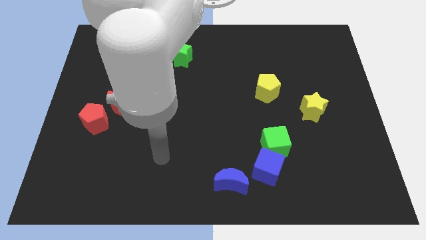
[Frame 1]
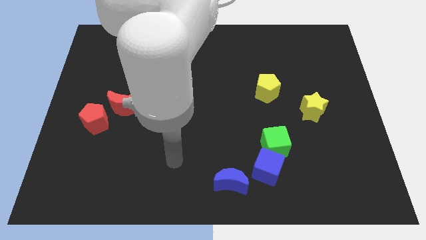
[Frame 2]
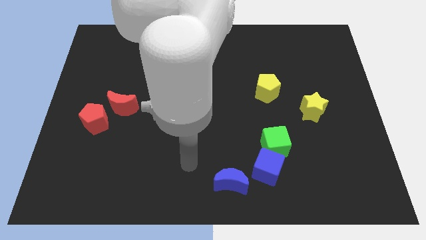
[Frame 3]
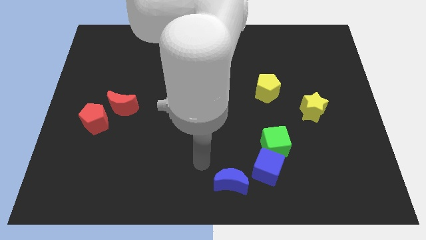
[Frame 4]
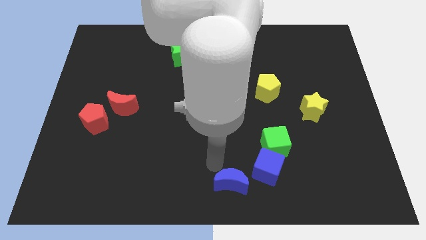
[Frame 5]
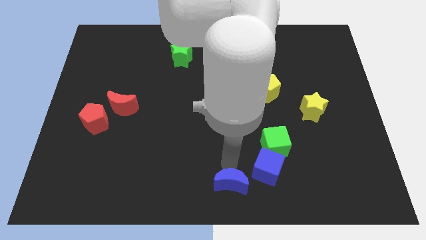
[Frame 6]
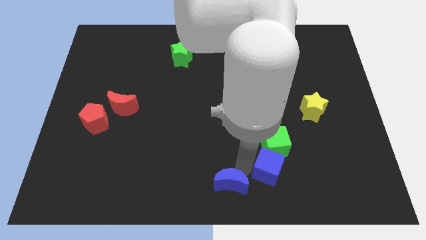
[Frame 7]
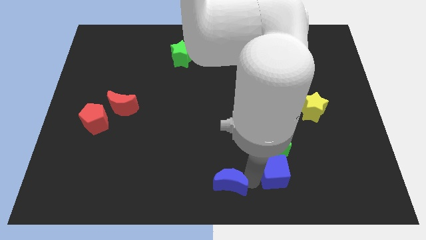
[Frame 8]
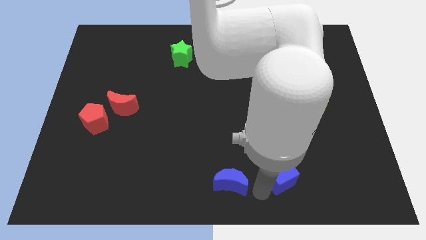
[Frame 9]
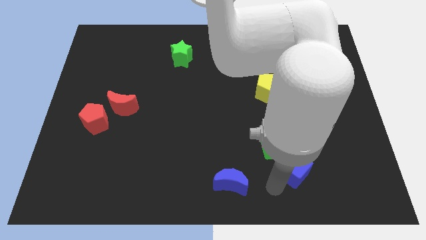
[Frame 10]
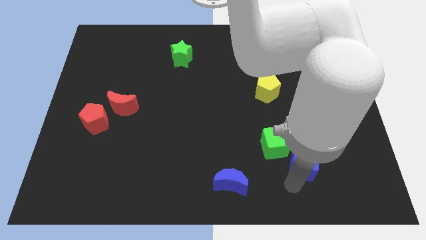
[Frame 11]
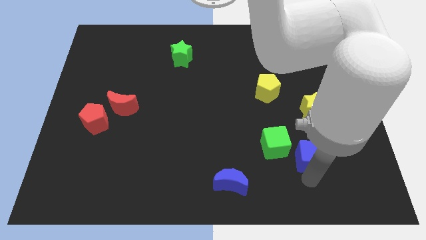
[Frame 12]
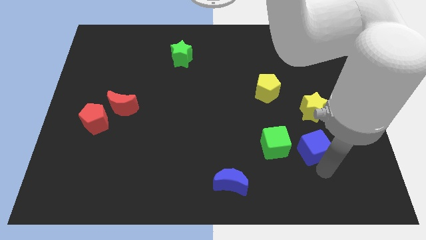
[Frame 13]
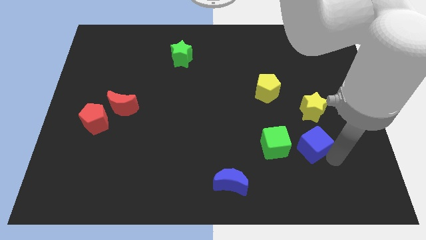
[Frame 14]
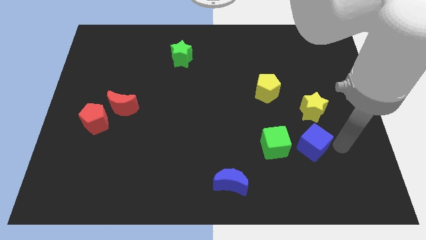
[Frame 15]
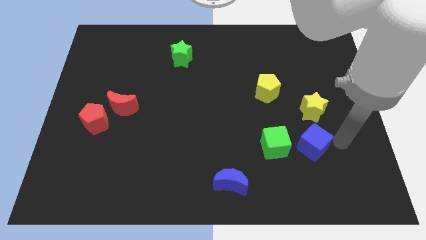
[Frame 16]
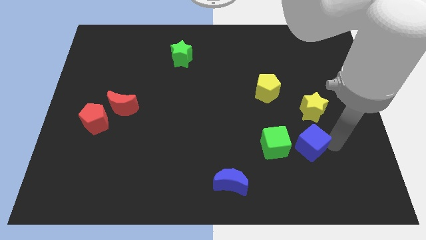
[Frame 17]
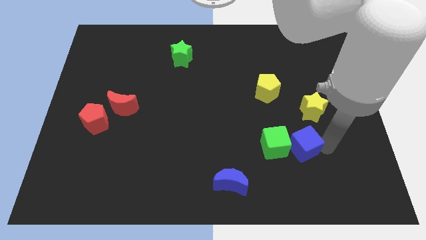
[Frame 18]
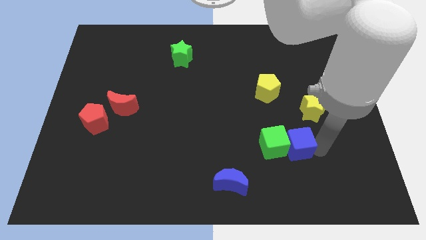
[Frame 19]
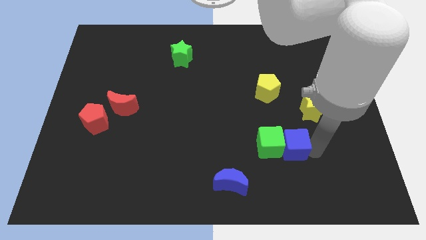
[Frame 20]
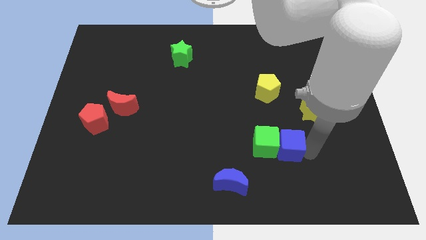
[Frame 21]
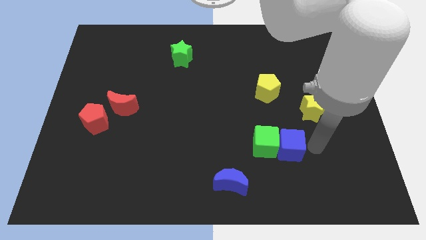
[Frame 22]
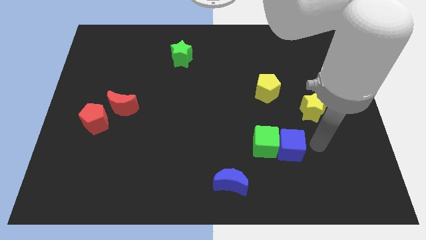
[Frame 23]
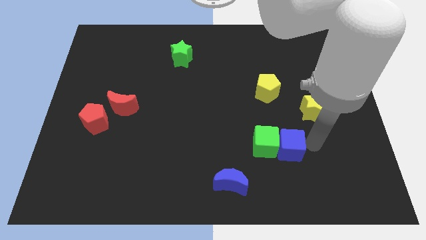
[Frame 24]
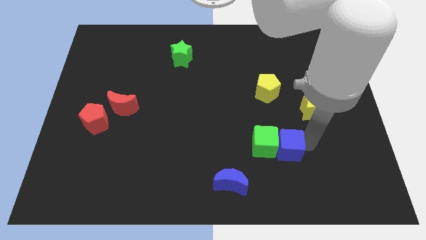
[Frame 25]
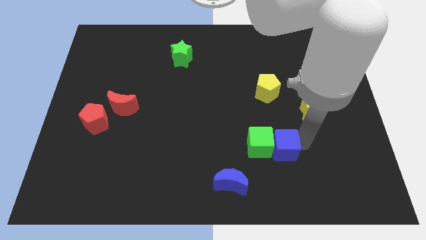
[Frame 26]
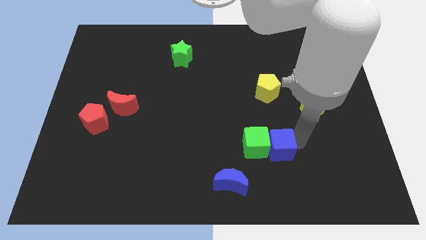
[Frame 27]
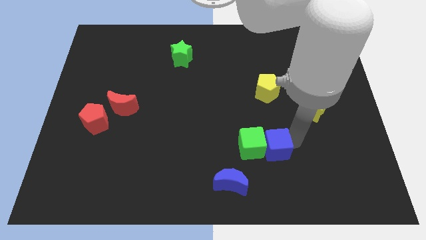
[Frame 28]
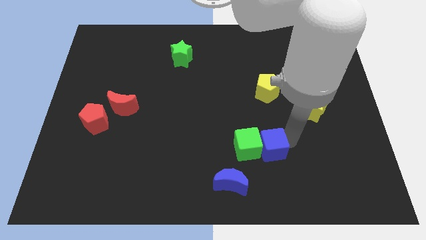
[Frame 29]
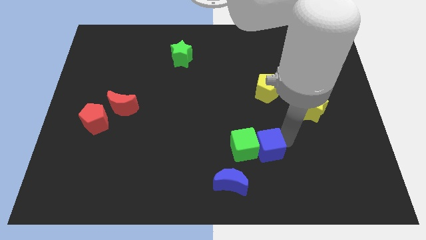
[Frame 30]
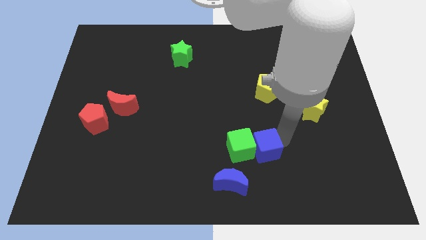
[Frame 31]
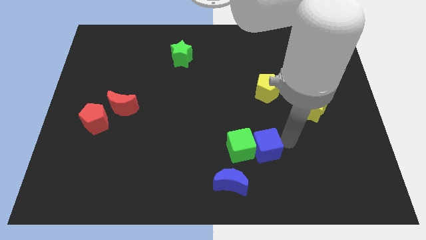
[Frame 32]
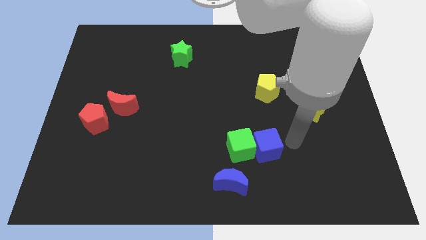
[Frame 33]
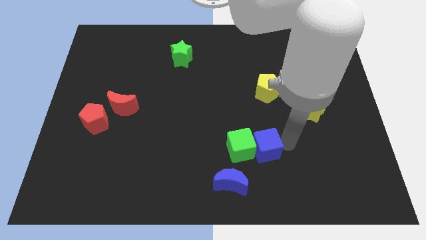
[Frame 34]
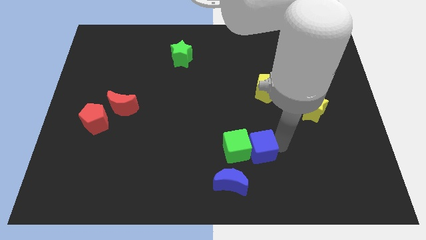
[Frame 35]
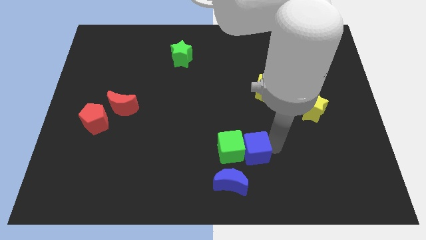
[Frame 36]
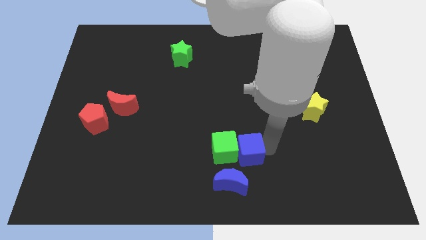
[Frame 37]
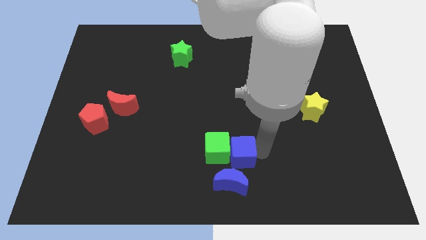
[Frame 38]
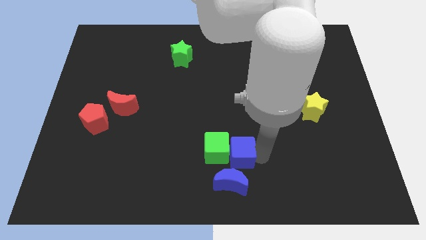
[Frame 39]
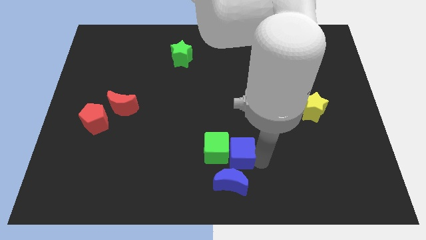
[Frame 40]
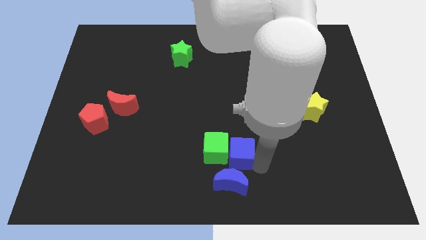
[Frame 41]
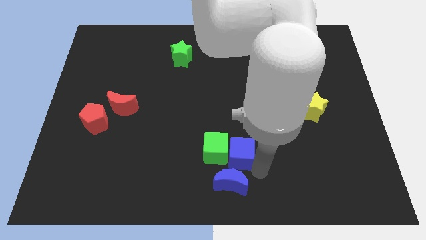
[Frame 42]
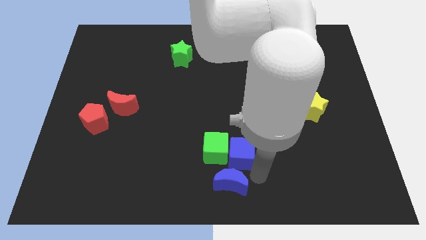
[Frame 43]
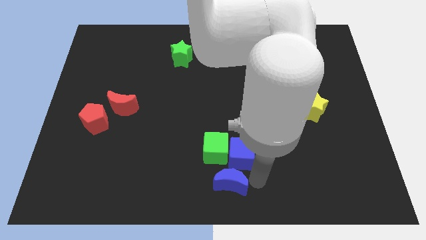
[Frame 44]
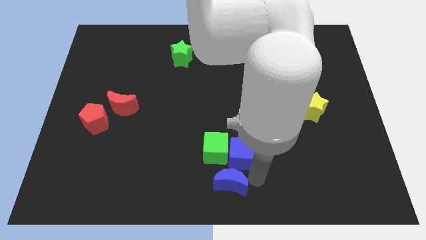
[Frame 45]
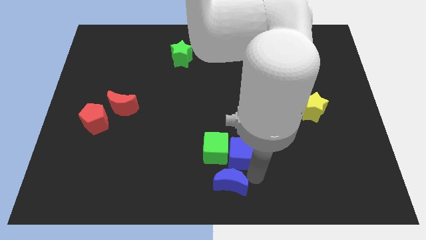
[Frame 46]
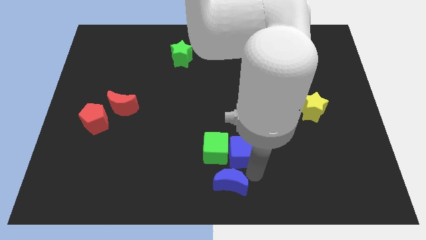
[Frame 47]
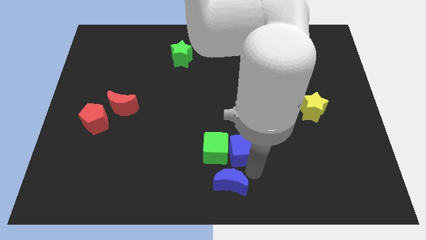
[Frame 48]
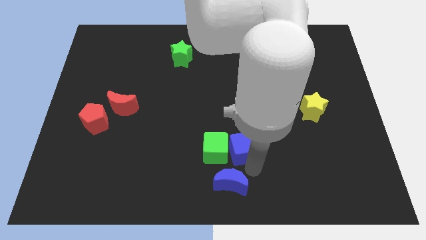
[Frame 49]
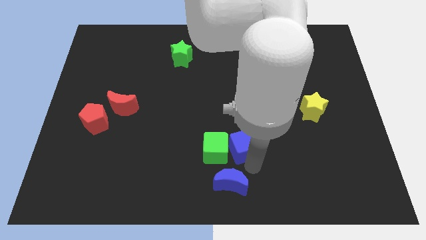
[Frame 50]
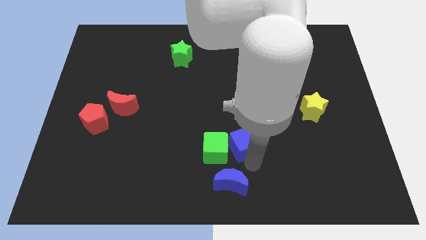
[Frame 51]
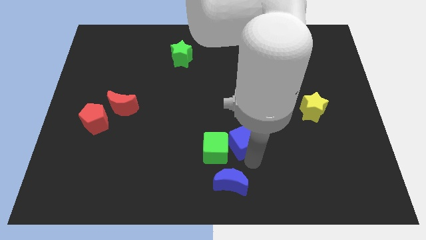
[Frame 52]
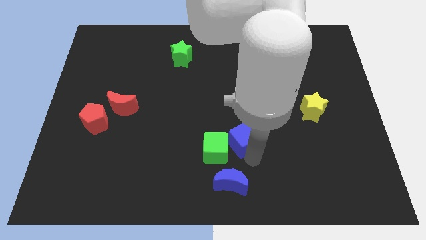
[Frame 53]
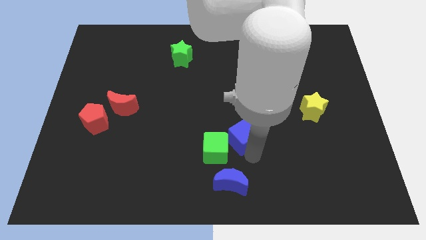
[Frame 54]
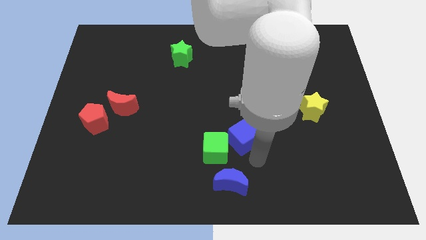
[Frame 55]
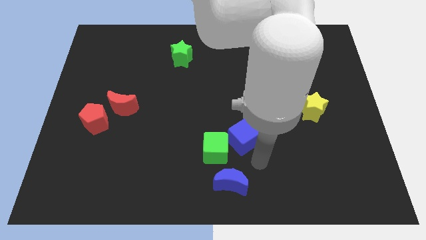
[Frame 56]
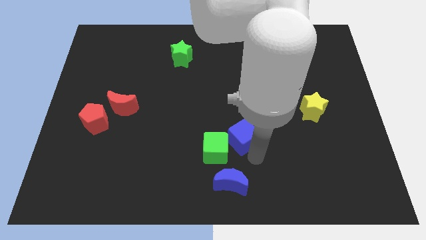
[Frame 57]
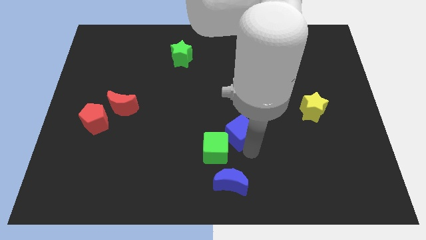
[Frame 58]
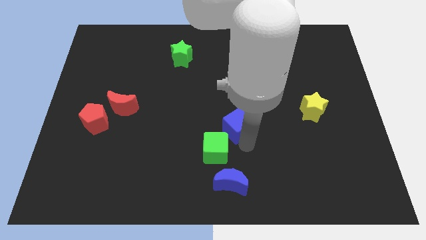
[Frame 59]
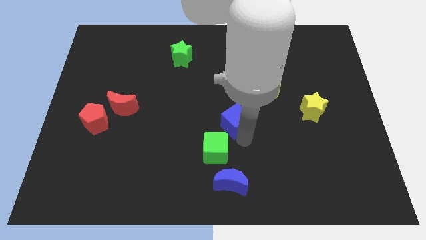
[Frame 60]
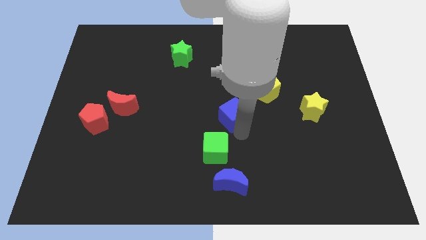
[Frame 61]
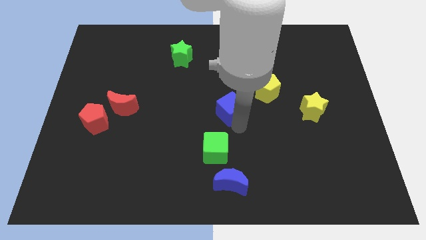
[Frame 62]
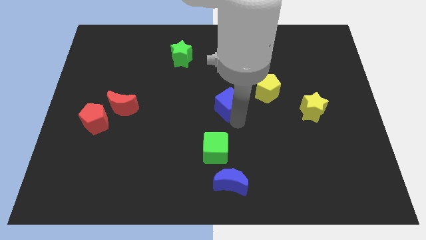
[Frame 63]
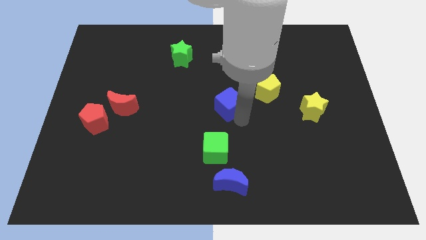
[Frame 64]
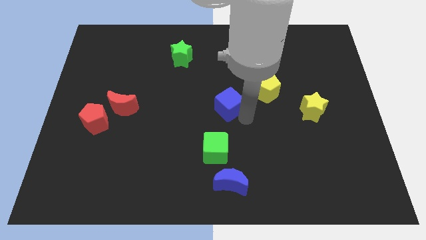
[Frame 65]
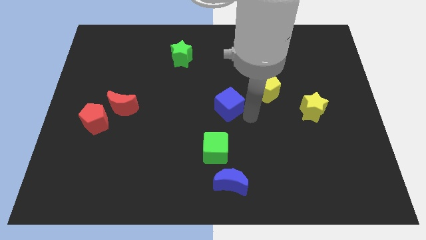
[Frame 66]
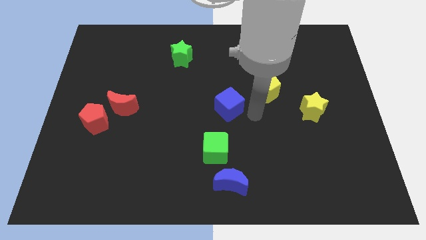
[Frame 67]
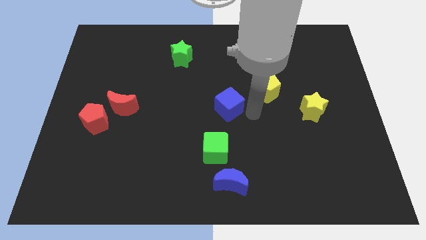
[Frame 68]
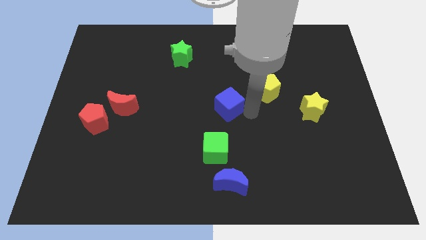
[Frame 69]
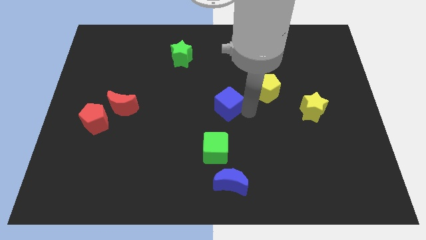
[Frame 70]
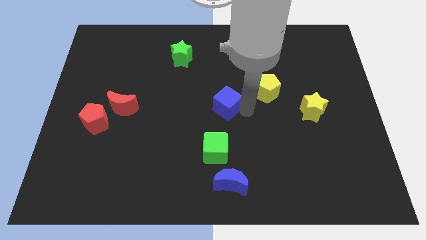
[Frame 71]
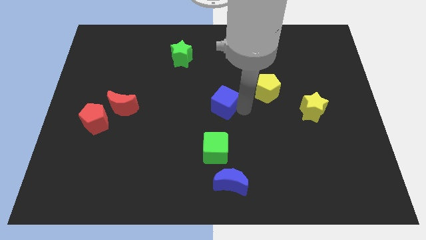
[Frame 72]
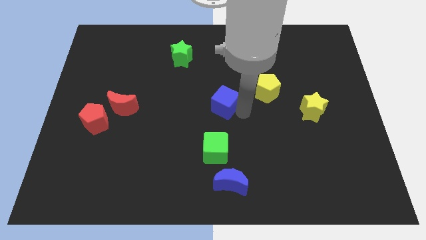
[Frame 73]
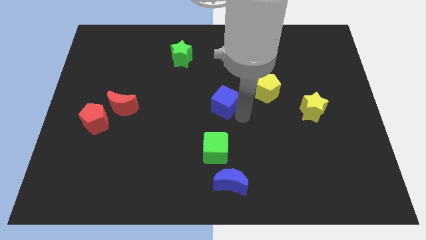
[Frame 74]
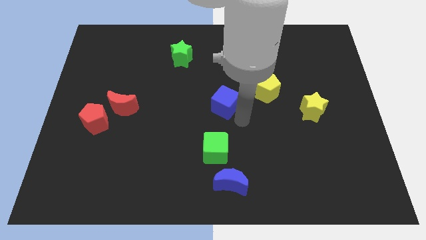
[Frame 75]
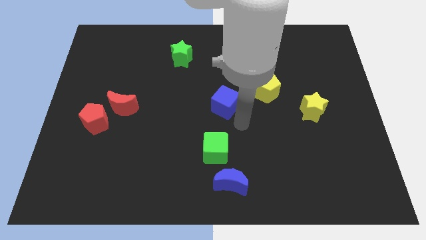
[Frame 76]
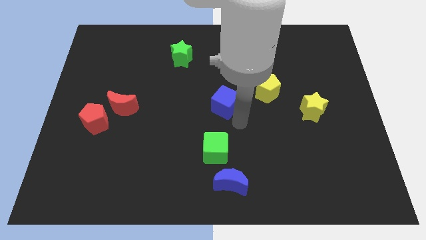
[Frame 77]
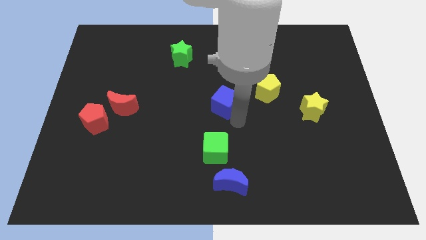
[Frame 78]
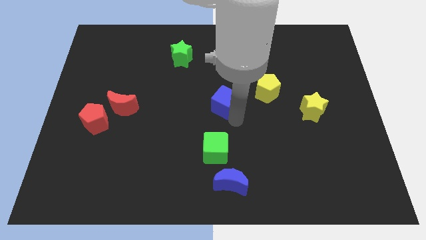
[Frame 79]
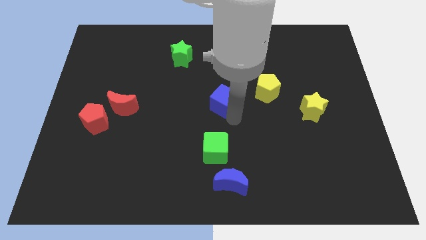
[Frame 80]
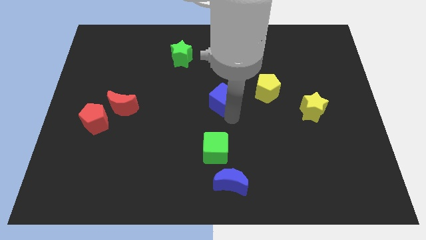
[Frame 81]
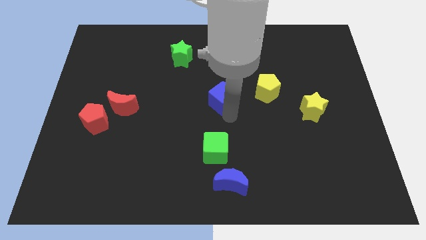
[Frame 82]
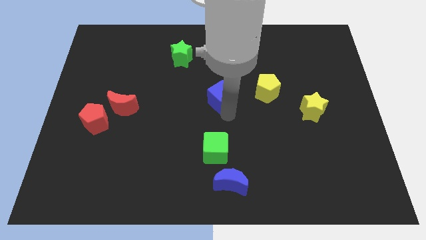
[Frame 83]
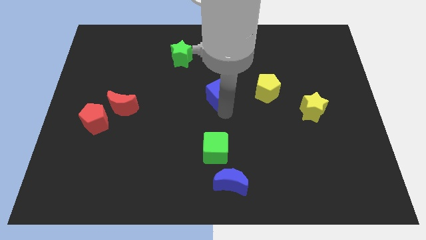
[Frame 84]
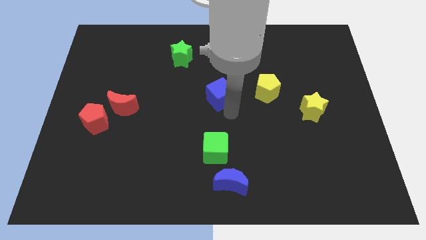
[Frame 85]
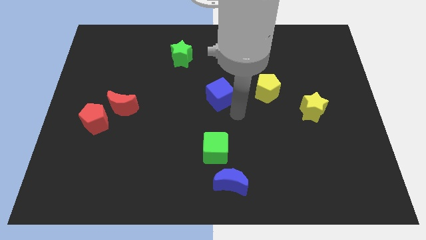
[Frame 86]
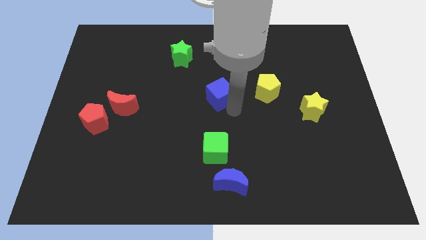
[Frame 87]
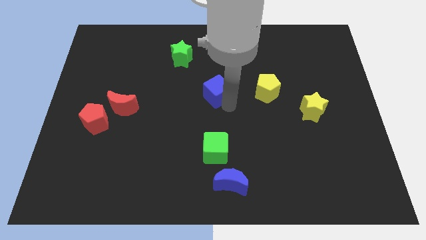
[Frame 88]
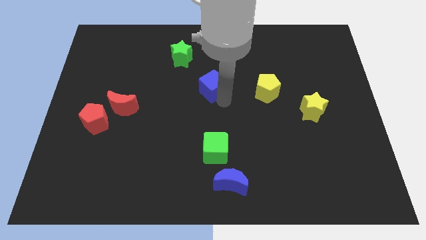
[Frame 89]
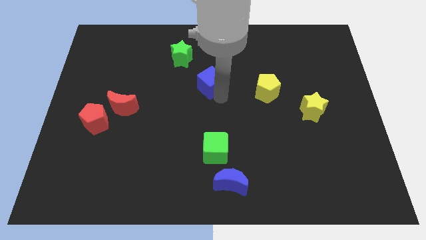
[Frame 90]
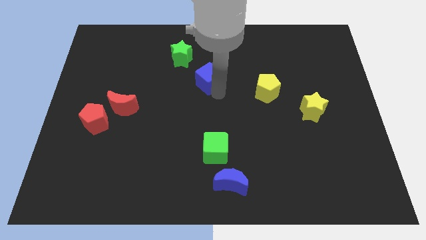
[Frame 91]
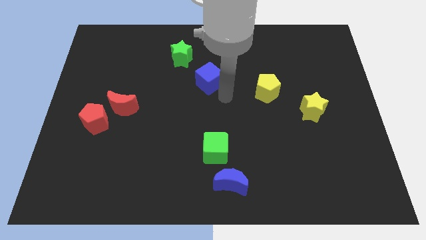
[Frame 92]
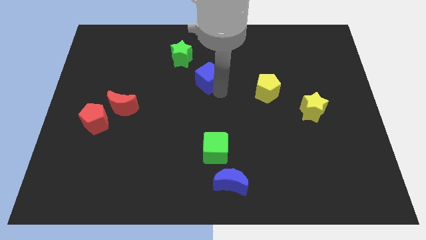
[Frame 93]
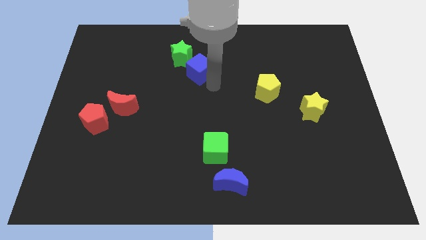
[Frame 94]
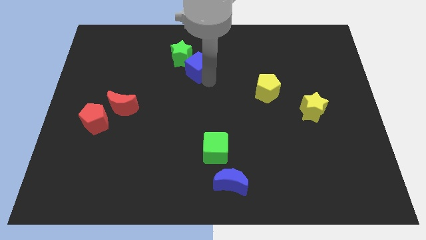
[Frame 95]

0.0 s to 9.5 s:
move the blue cube next to the green star
